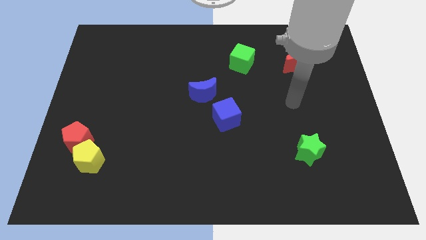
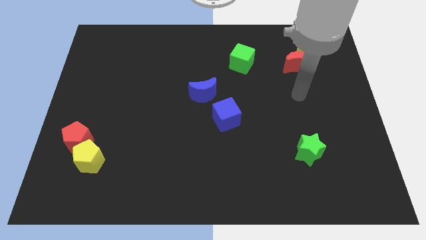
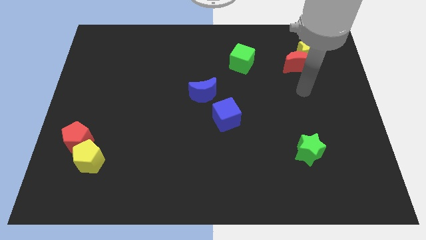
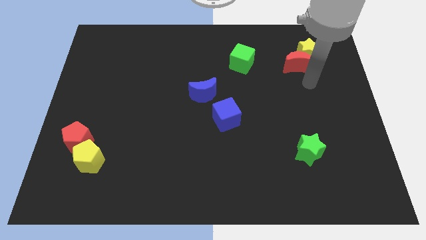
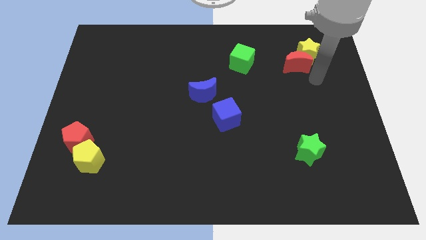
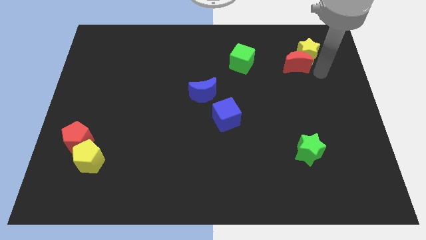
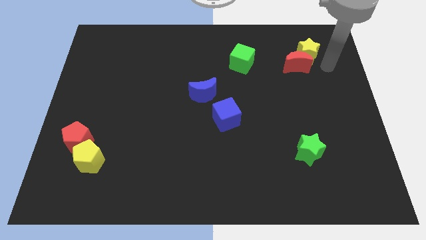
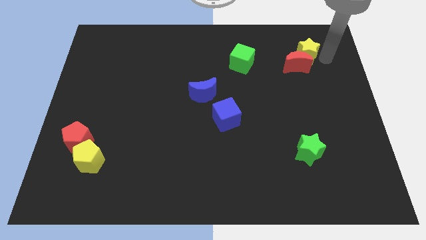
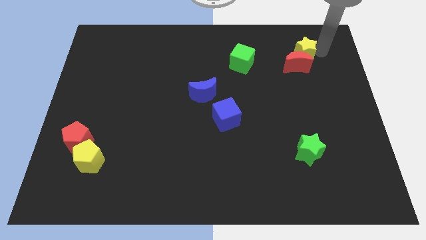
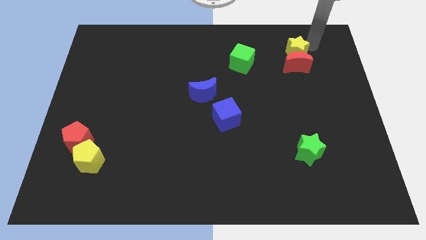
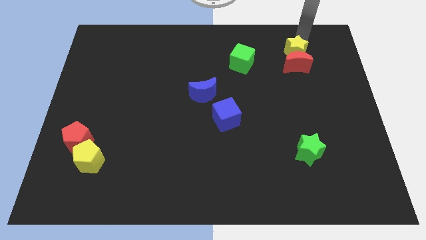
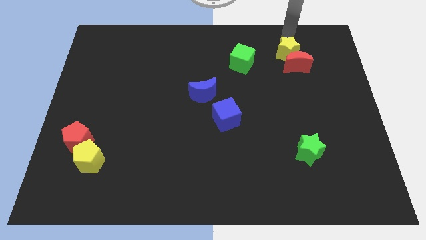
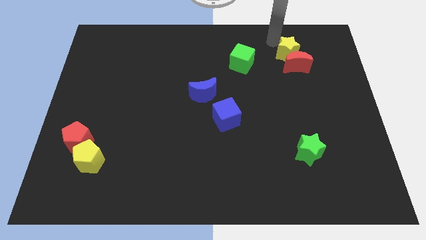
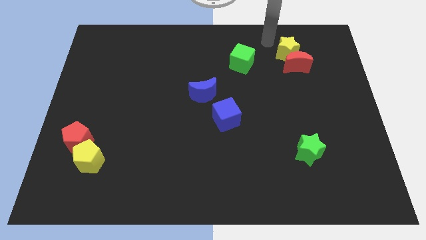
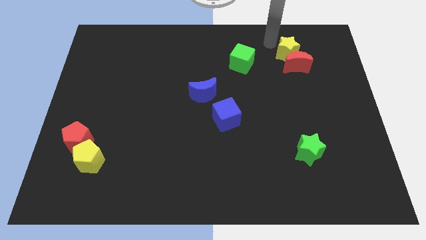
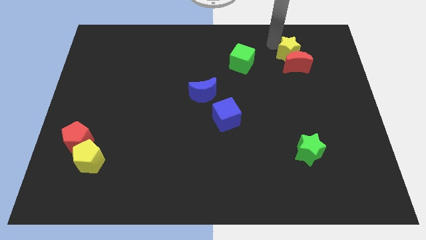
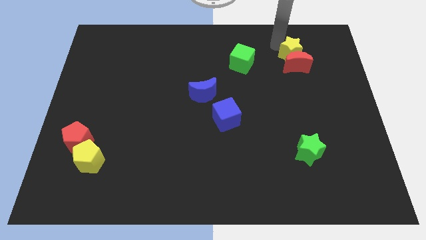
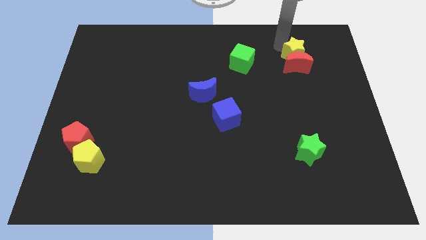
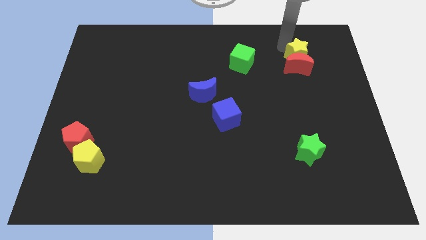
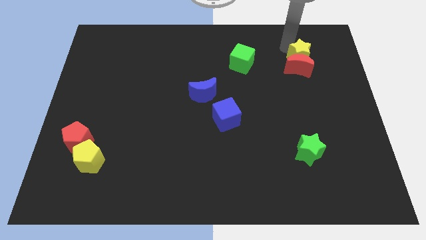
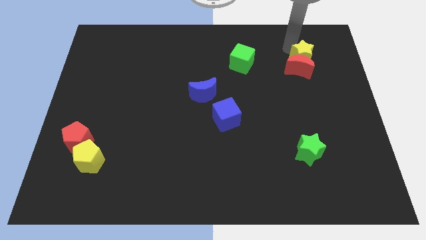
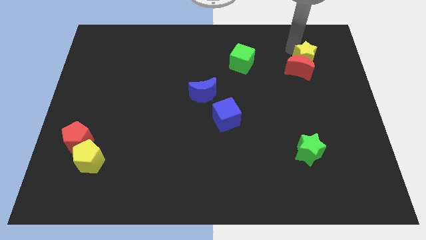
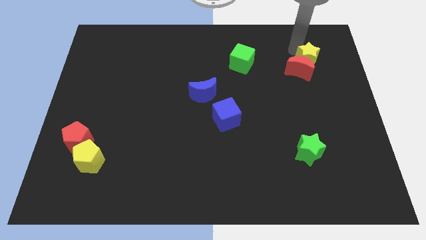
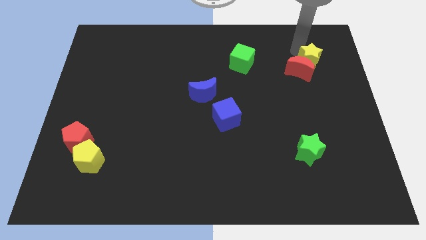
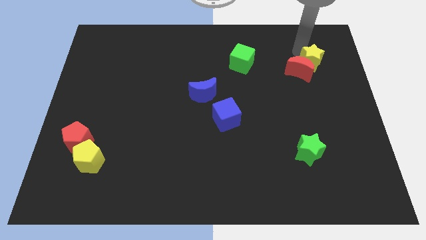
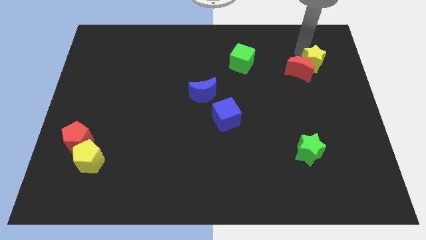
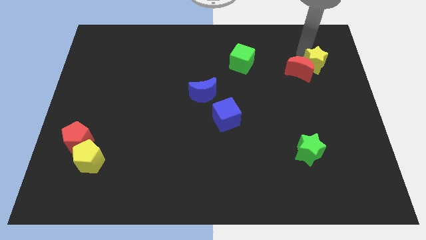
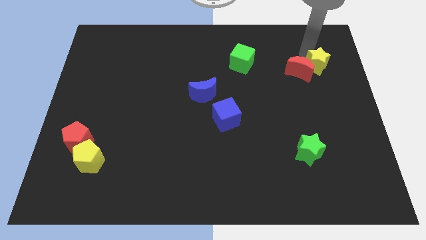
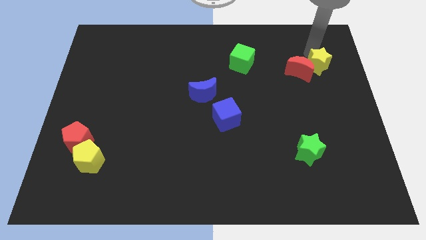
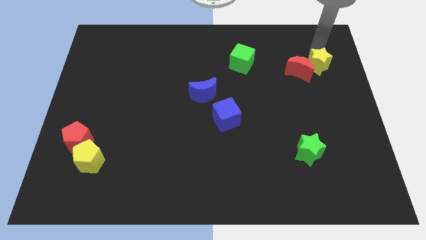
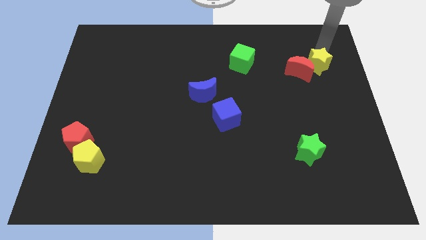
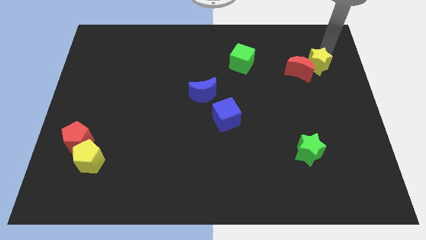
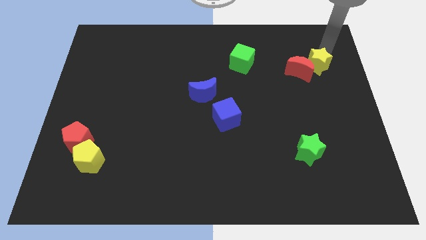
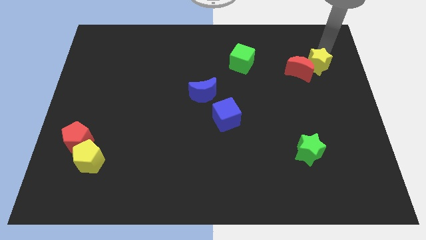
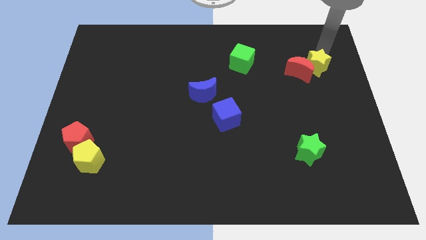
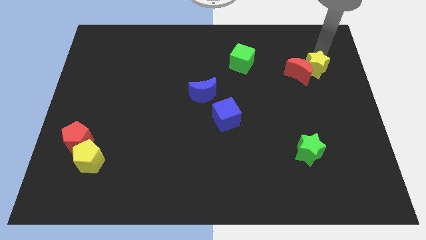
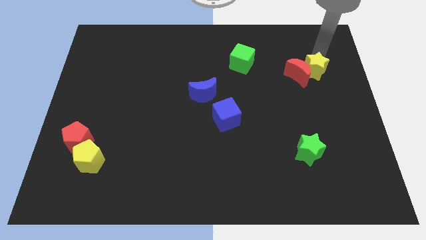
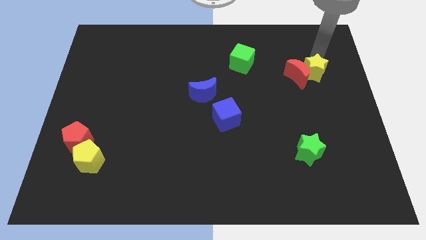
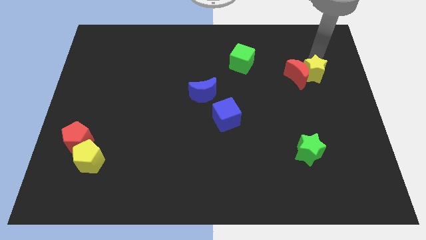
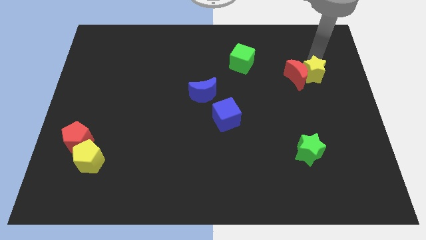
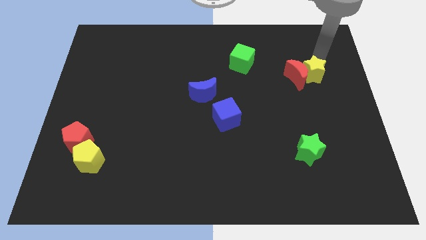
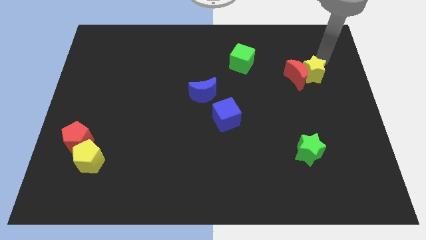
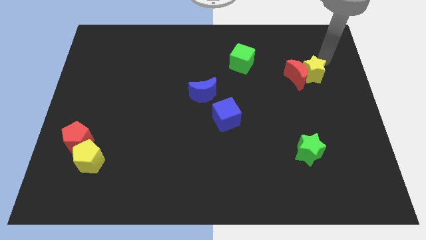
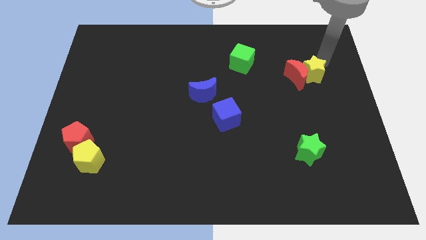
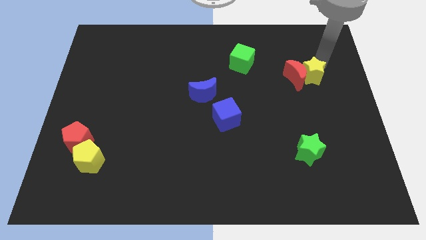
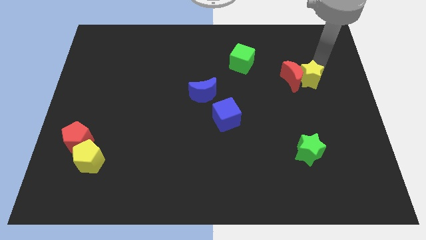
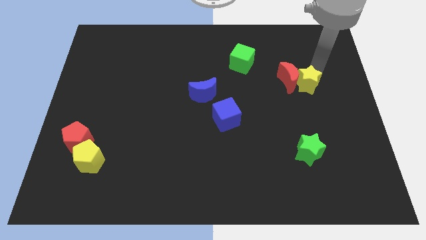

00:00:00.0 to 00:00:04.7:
slide the yellow star down and then to the left a little bit

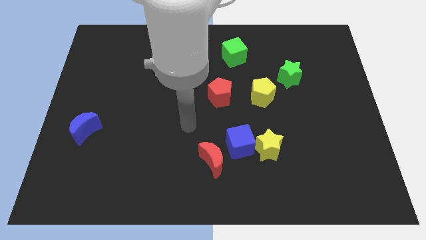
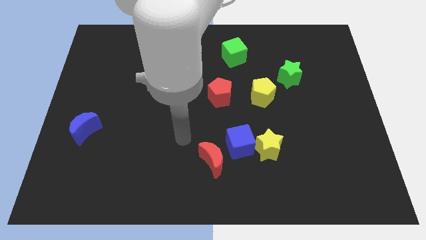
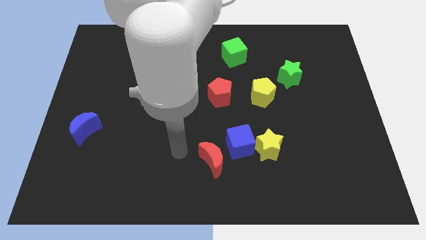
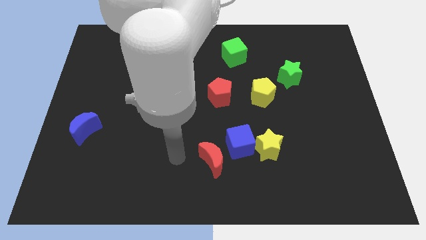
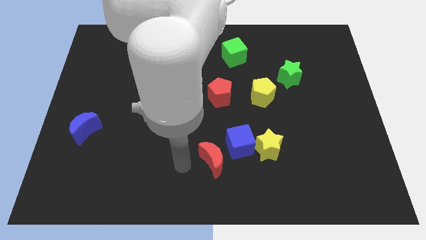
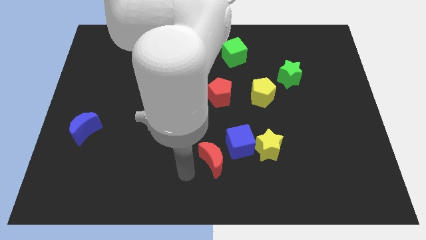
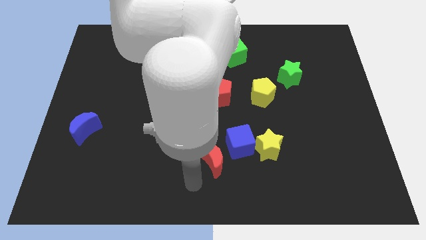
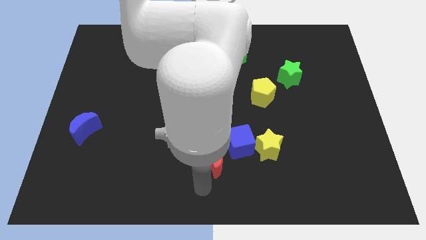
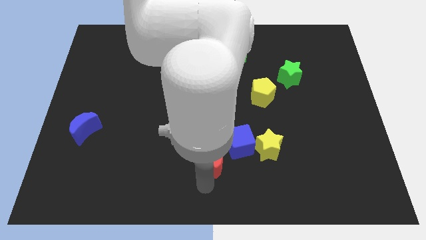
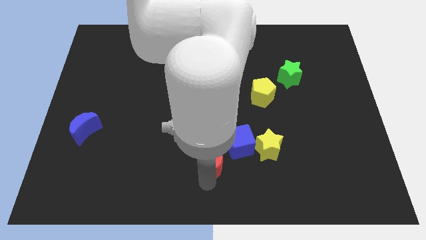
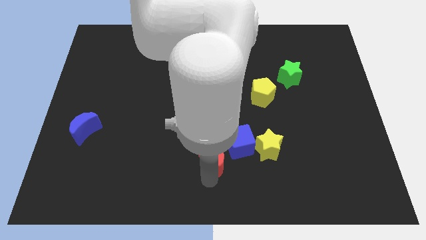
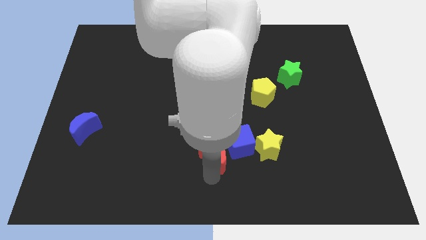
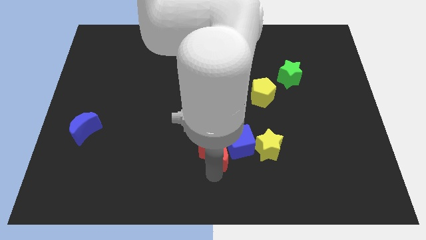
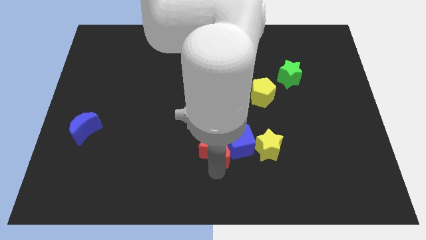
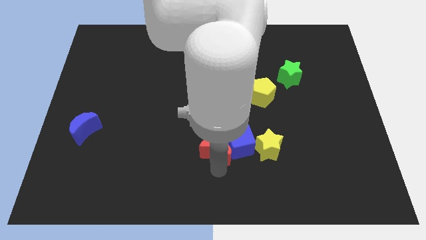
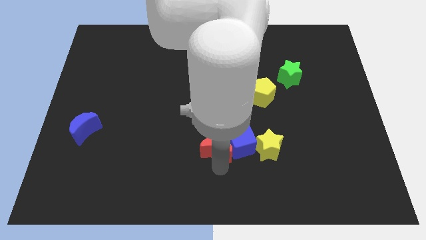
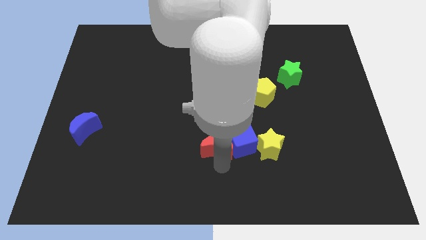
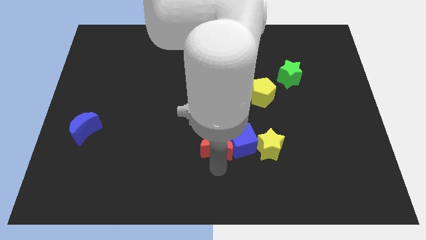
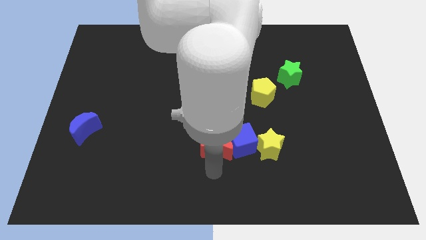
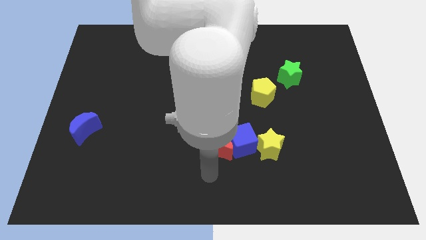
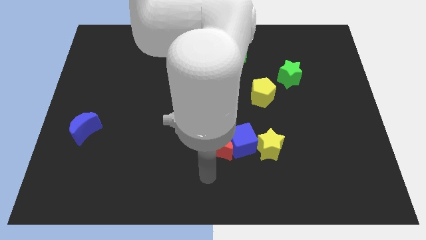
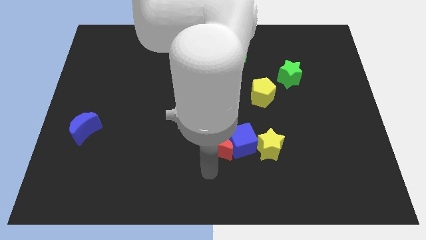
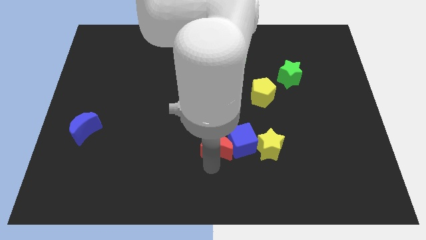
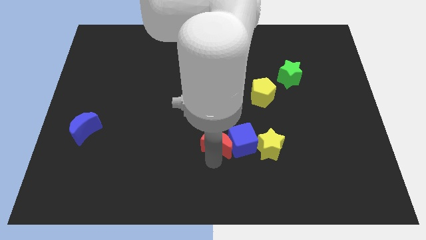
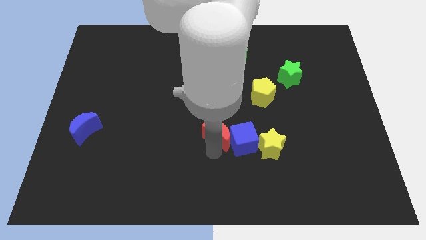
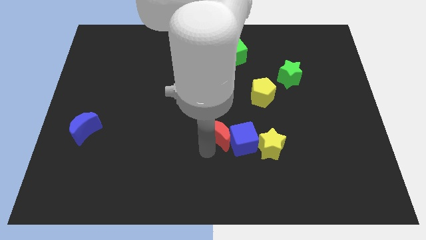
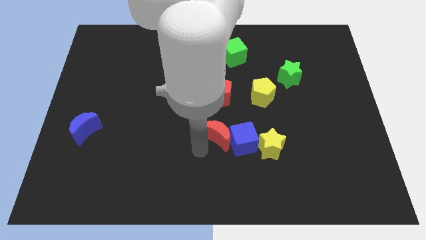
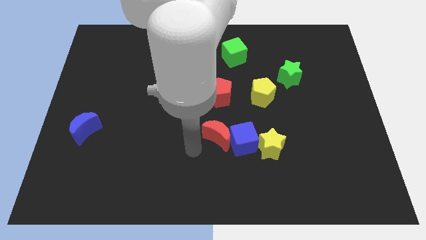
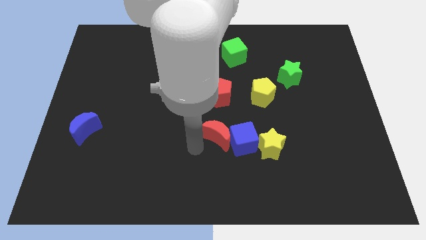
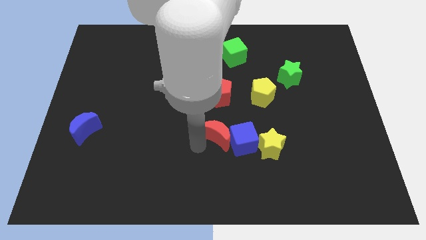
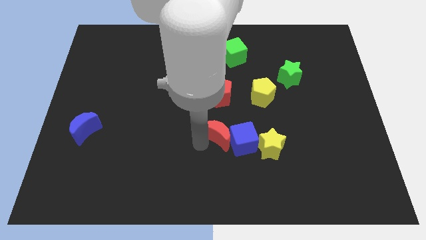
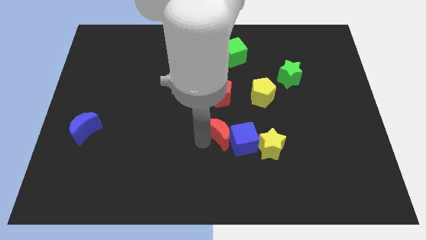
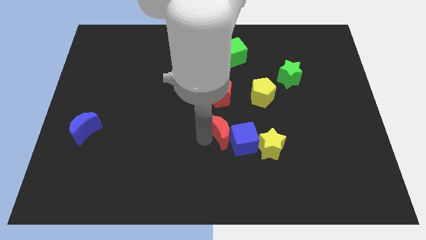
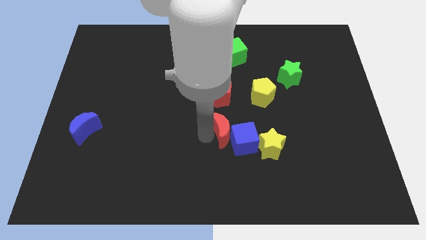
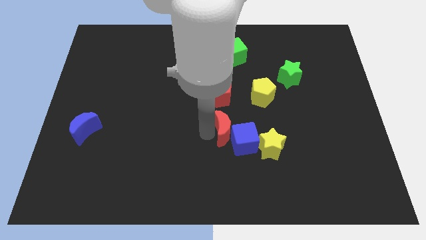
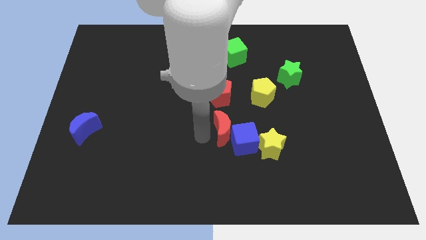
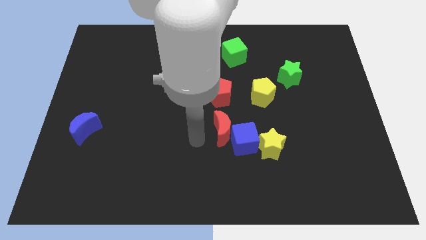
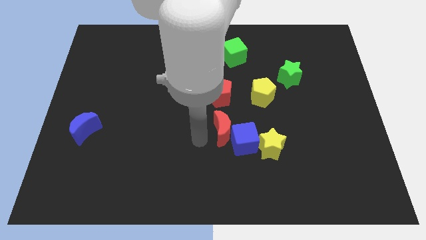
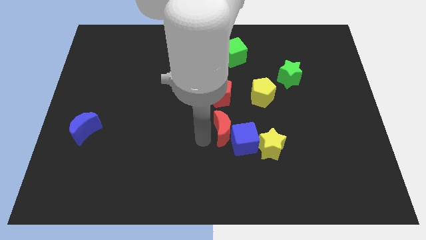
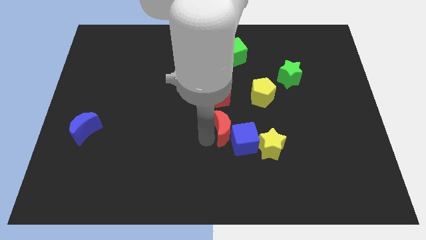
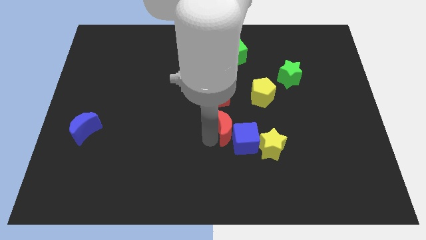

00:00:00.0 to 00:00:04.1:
slide the red moon a little bit upwards and then to the right
